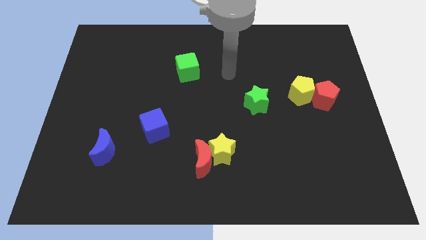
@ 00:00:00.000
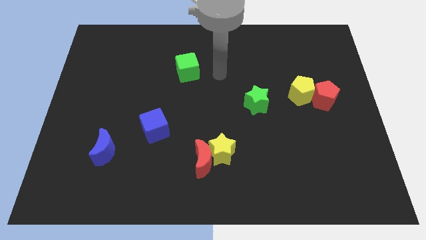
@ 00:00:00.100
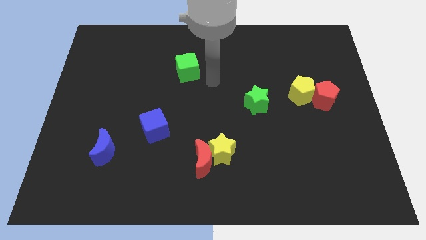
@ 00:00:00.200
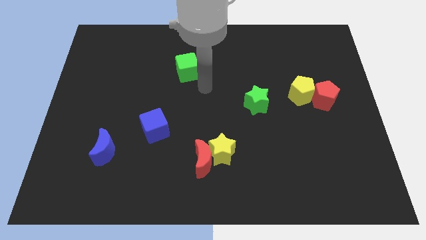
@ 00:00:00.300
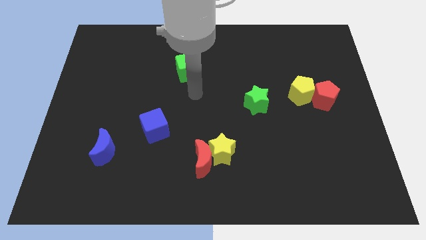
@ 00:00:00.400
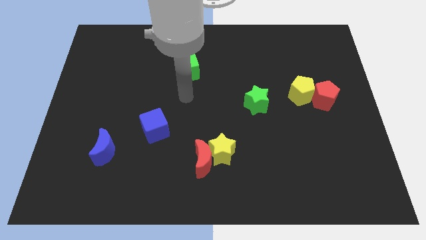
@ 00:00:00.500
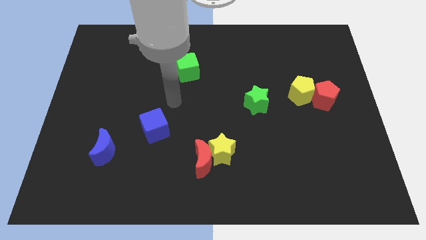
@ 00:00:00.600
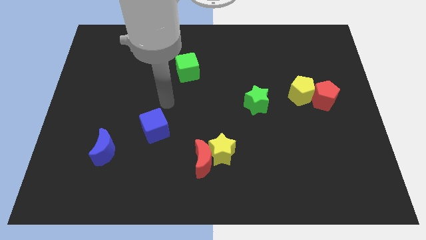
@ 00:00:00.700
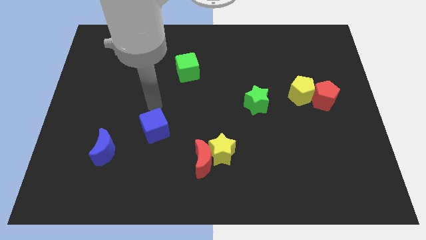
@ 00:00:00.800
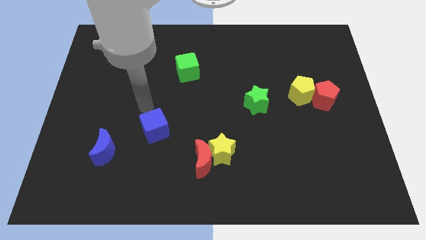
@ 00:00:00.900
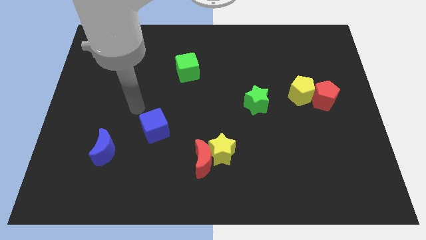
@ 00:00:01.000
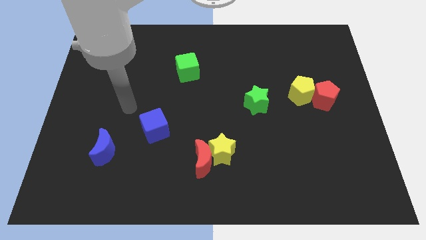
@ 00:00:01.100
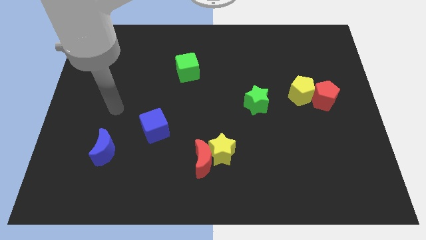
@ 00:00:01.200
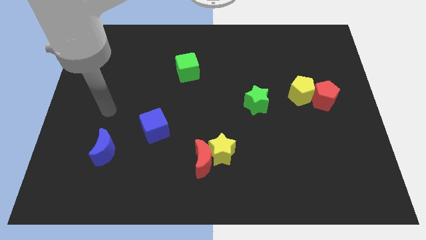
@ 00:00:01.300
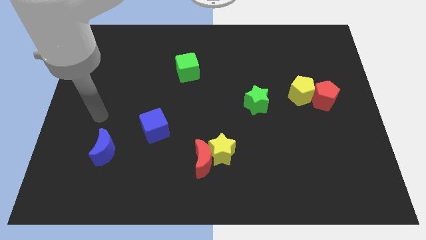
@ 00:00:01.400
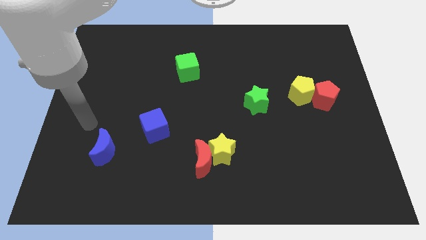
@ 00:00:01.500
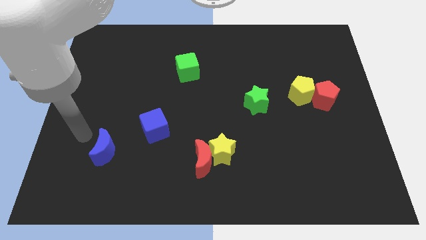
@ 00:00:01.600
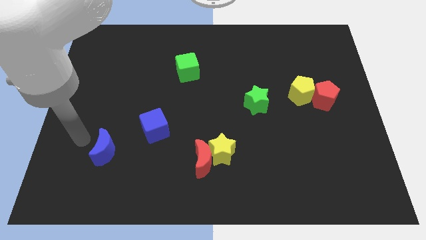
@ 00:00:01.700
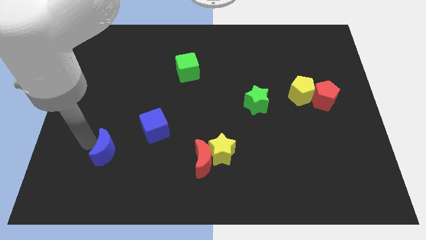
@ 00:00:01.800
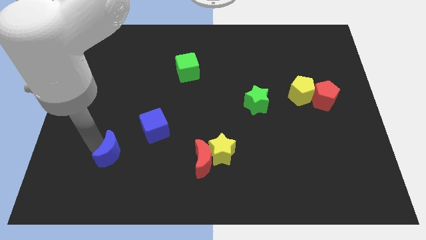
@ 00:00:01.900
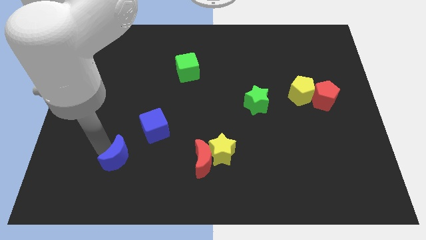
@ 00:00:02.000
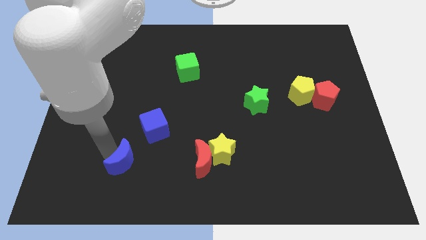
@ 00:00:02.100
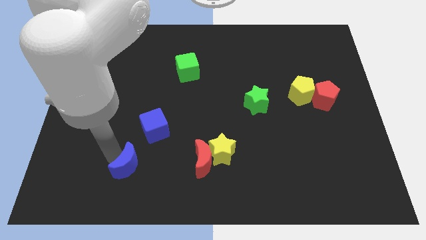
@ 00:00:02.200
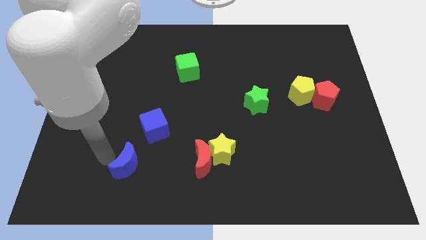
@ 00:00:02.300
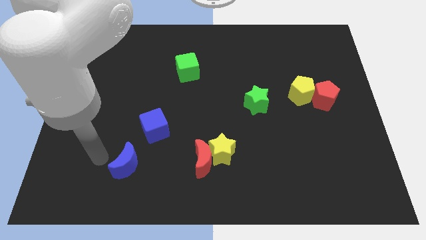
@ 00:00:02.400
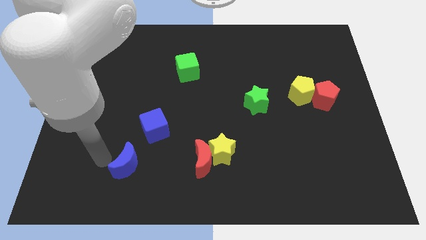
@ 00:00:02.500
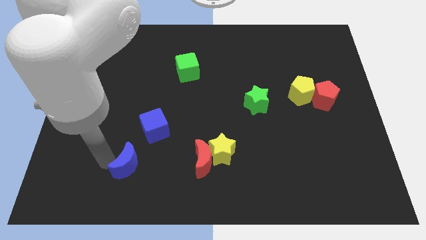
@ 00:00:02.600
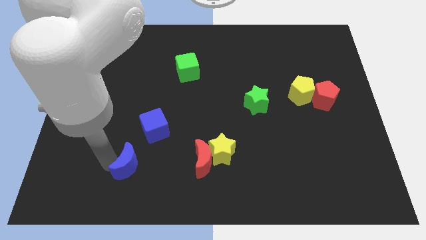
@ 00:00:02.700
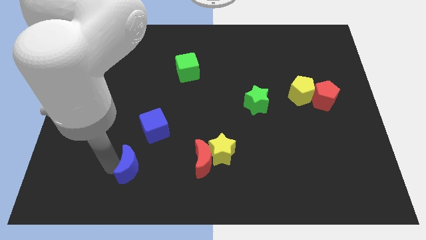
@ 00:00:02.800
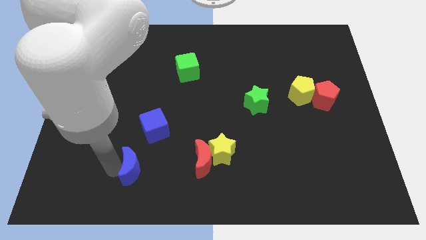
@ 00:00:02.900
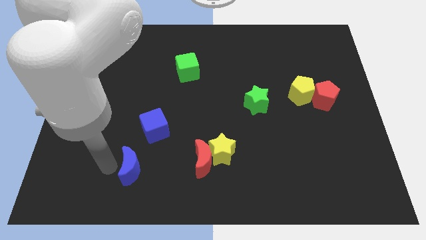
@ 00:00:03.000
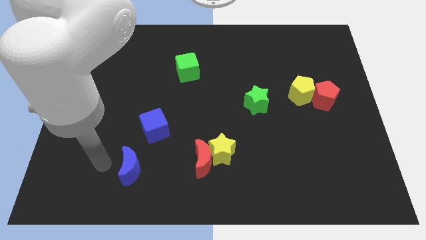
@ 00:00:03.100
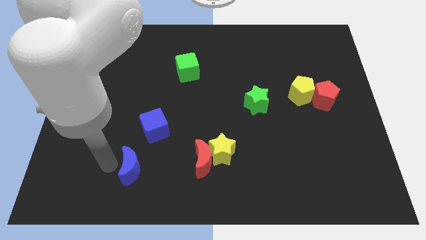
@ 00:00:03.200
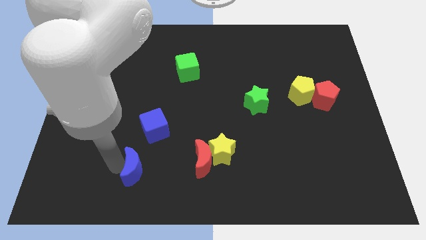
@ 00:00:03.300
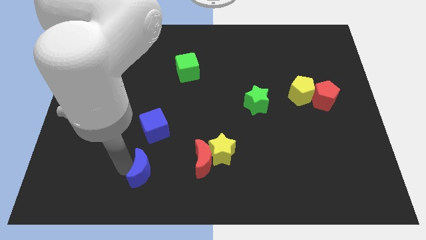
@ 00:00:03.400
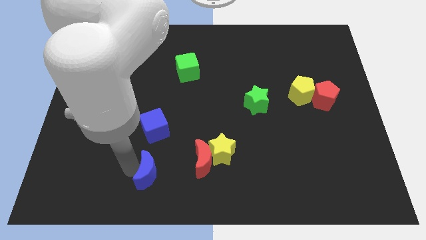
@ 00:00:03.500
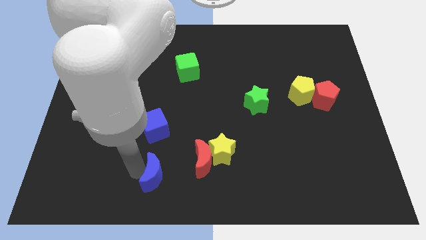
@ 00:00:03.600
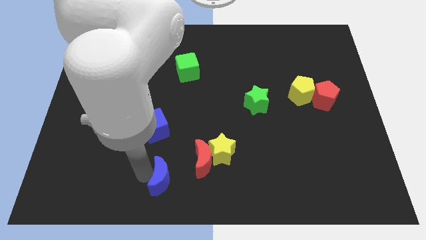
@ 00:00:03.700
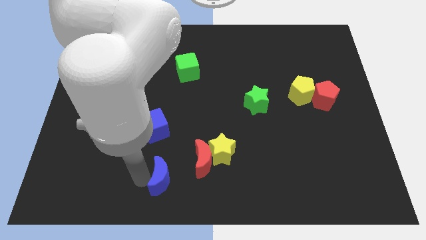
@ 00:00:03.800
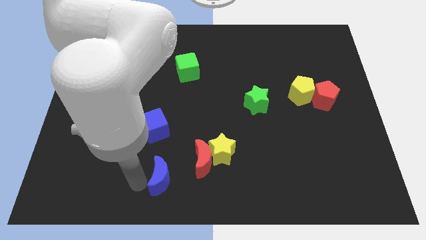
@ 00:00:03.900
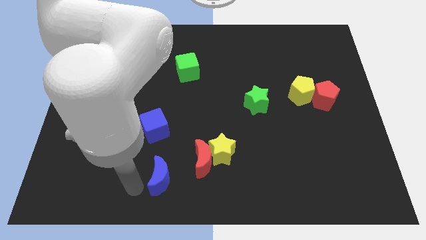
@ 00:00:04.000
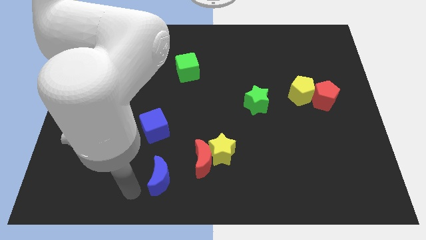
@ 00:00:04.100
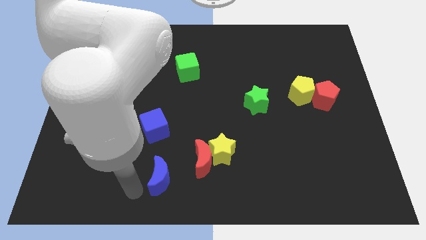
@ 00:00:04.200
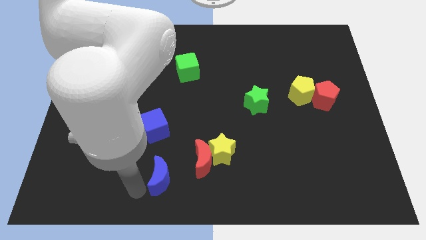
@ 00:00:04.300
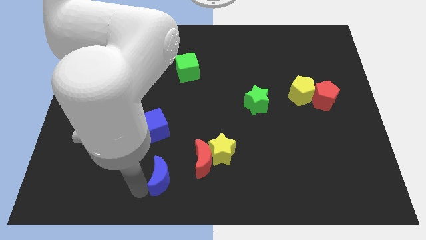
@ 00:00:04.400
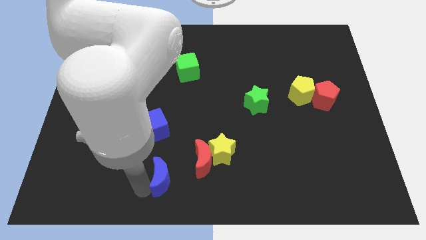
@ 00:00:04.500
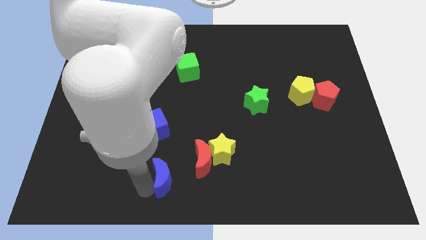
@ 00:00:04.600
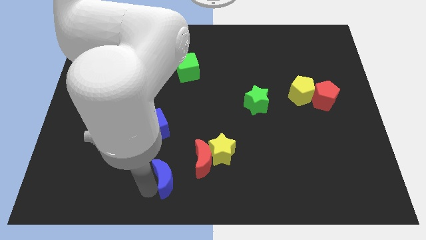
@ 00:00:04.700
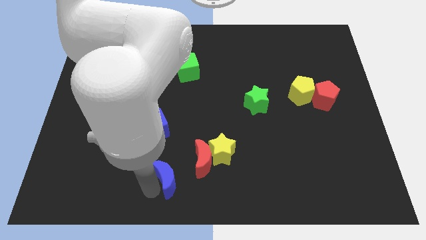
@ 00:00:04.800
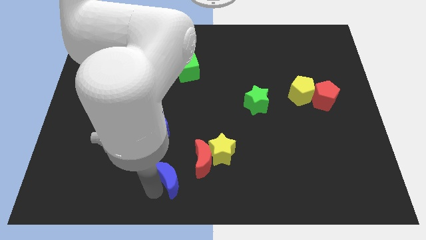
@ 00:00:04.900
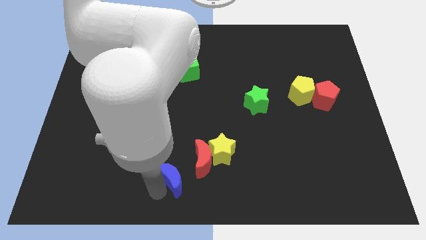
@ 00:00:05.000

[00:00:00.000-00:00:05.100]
put the blue moon to the bottom left side of the yellow star

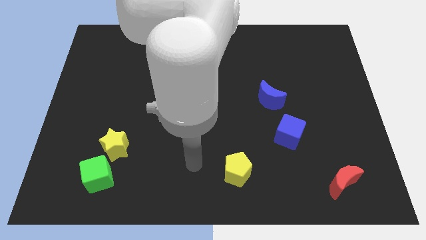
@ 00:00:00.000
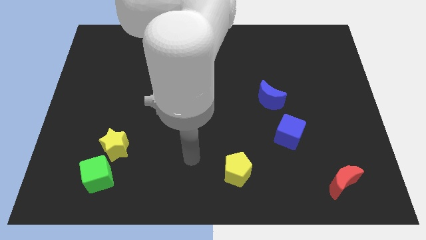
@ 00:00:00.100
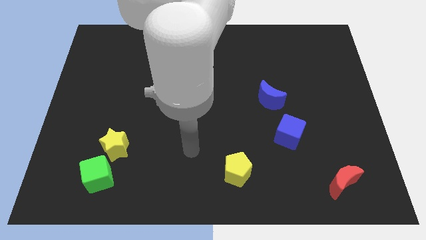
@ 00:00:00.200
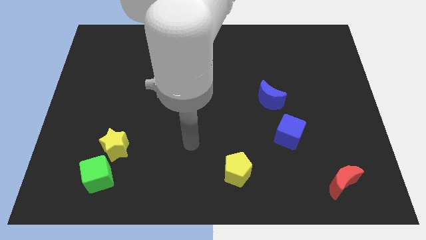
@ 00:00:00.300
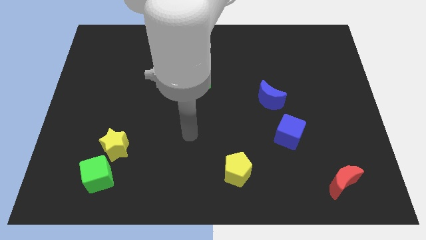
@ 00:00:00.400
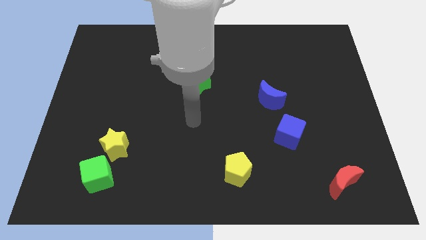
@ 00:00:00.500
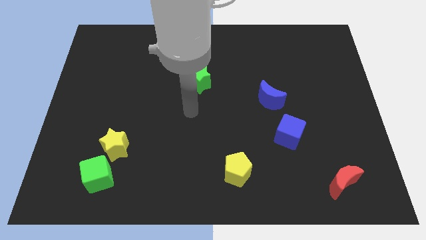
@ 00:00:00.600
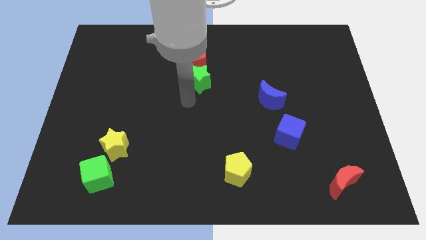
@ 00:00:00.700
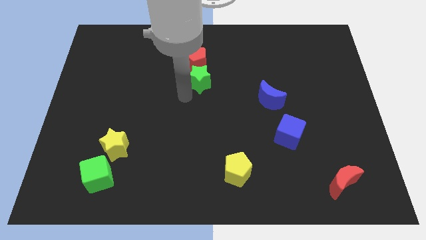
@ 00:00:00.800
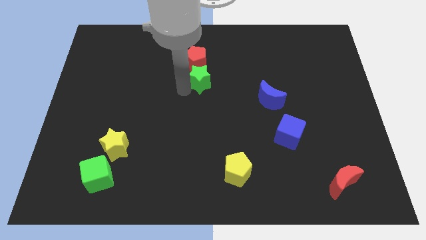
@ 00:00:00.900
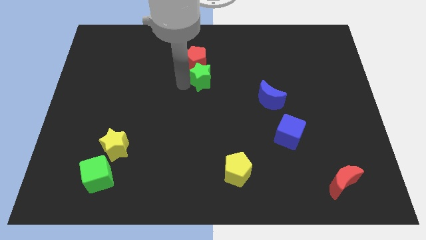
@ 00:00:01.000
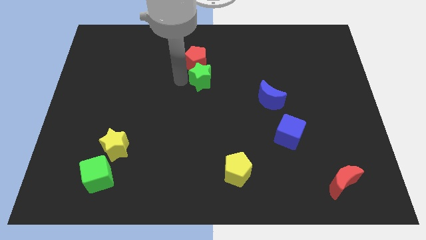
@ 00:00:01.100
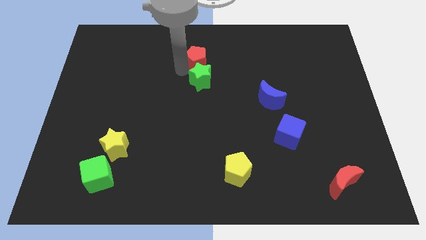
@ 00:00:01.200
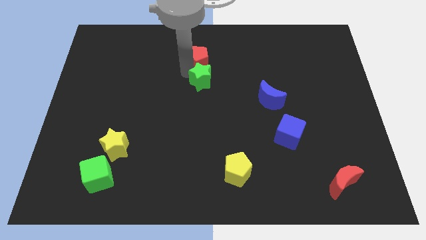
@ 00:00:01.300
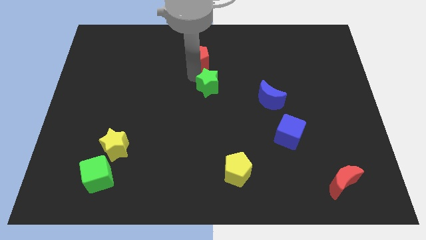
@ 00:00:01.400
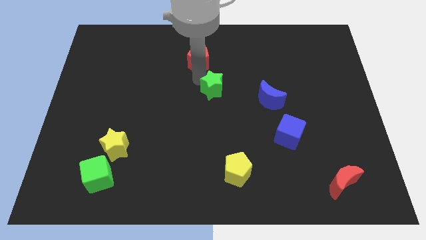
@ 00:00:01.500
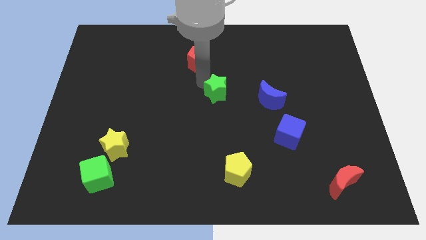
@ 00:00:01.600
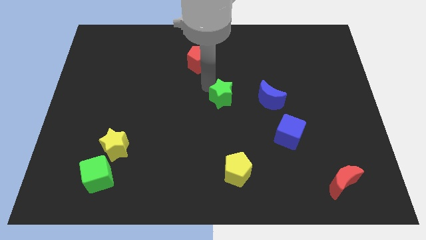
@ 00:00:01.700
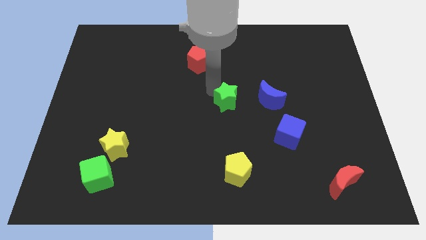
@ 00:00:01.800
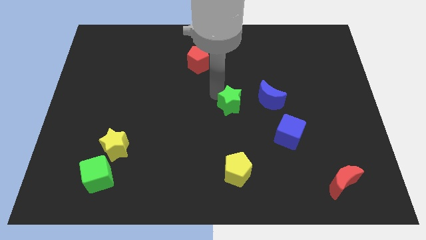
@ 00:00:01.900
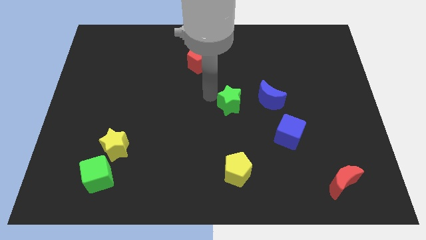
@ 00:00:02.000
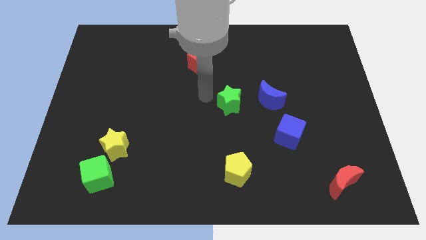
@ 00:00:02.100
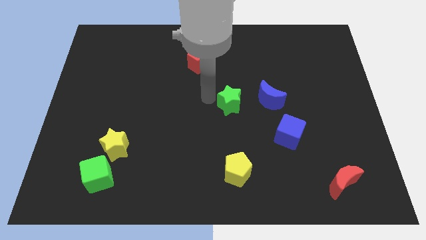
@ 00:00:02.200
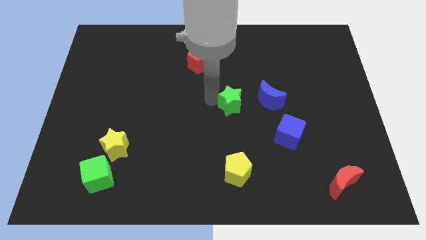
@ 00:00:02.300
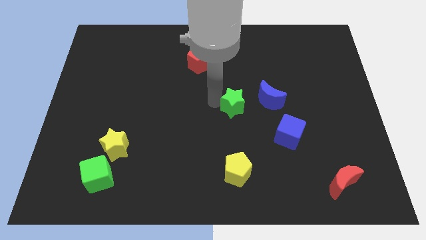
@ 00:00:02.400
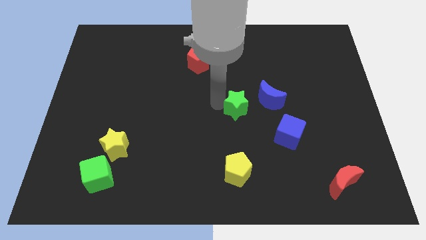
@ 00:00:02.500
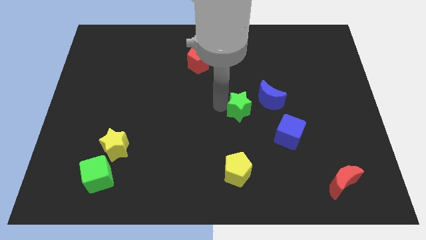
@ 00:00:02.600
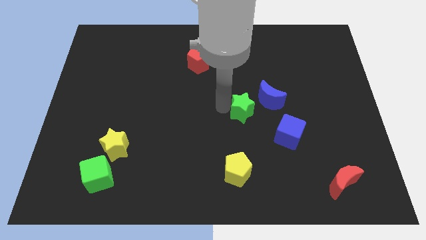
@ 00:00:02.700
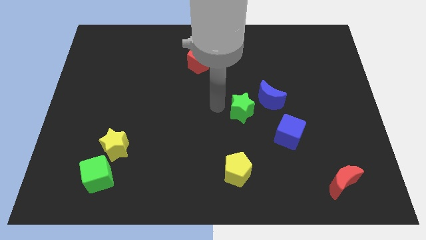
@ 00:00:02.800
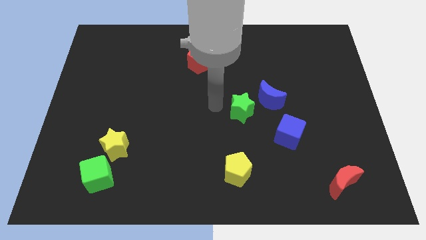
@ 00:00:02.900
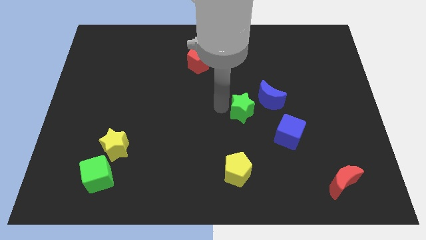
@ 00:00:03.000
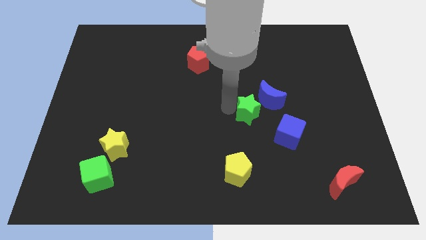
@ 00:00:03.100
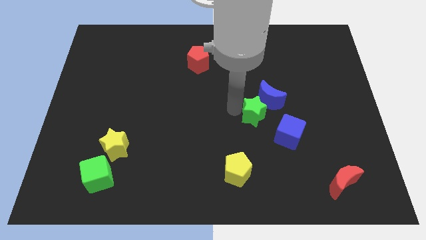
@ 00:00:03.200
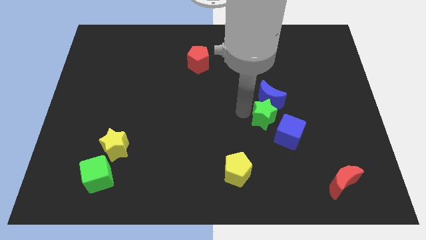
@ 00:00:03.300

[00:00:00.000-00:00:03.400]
put the green star to the bottom right of the blue moon
